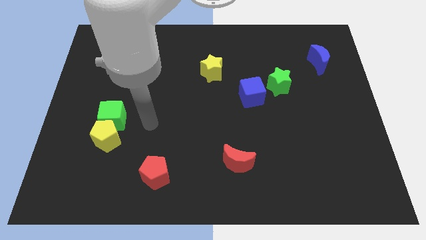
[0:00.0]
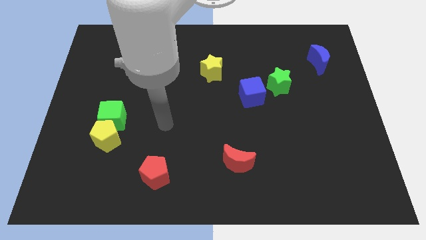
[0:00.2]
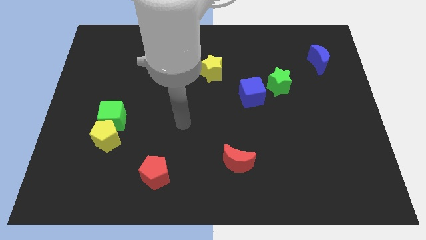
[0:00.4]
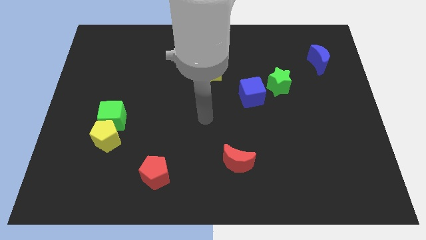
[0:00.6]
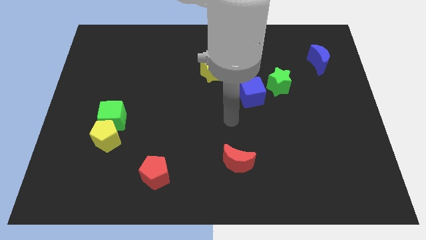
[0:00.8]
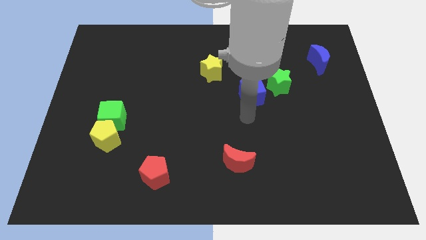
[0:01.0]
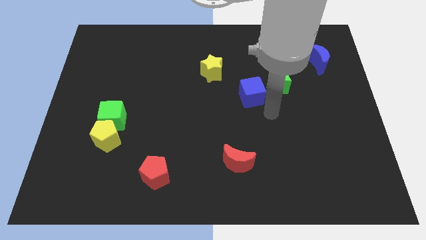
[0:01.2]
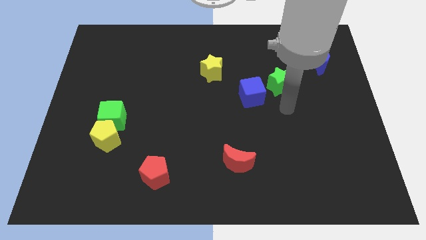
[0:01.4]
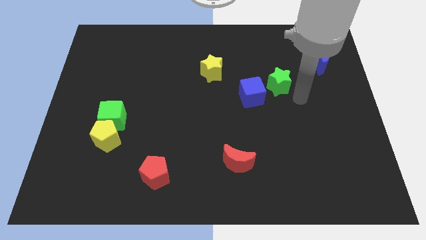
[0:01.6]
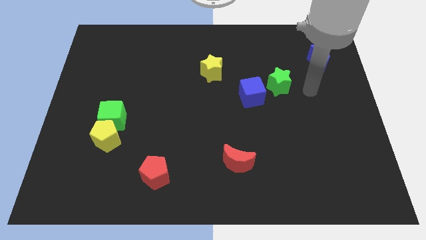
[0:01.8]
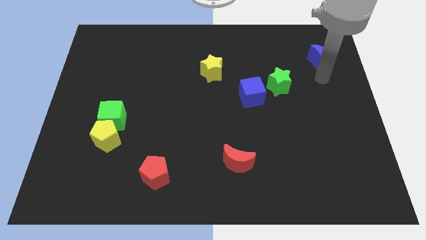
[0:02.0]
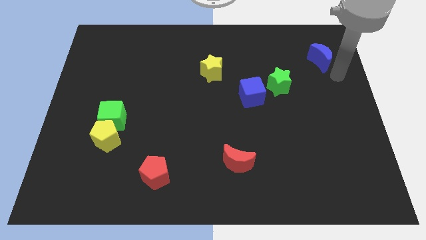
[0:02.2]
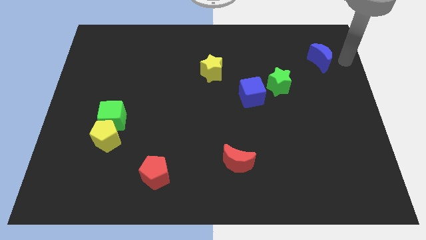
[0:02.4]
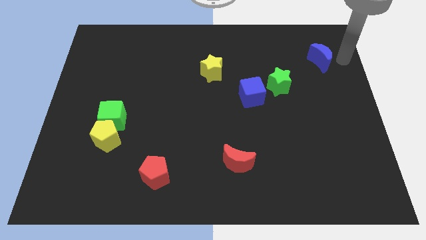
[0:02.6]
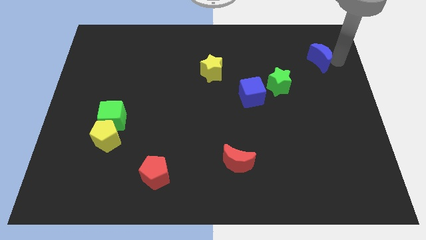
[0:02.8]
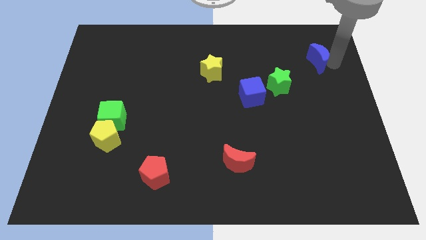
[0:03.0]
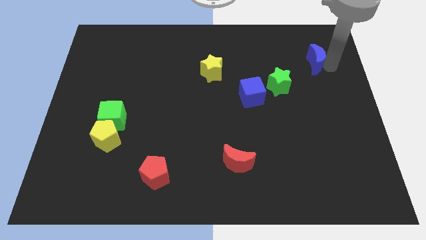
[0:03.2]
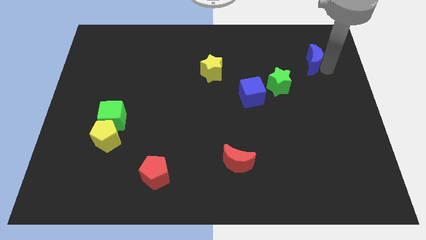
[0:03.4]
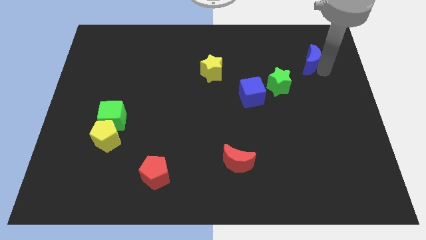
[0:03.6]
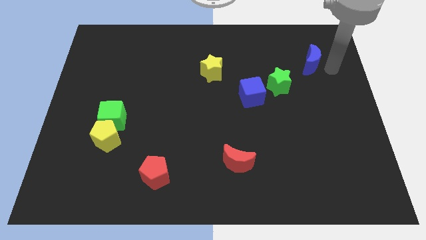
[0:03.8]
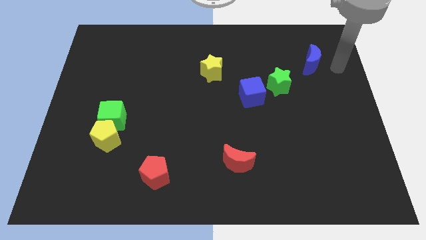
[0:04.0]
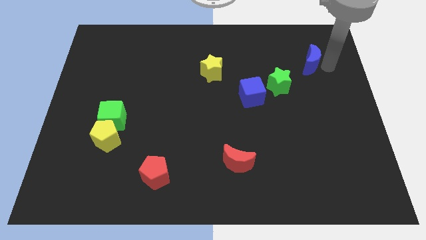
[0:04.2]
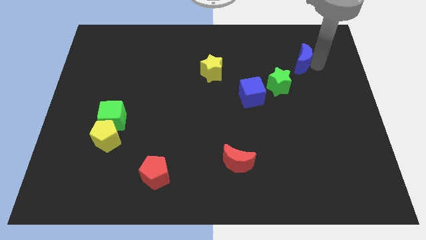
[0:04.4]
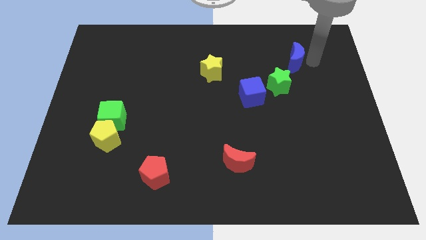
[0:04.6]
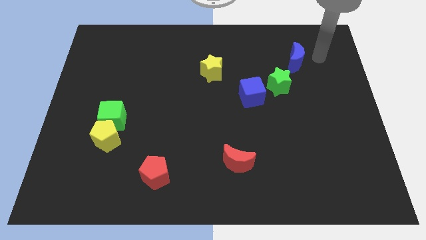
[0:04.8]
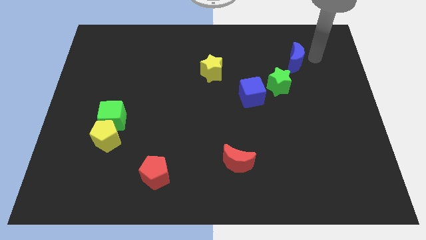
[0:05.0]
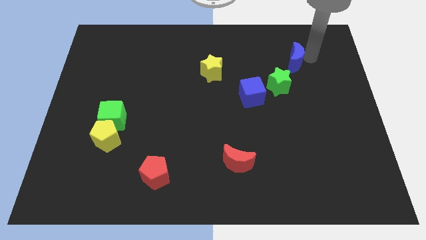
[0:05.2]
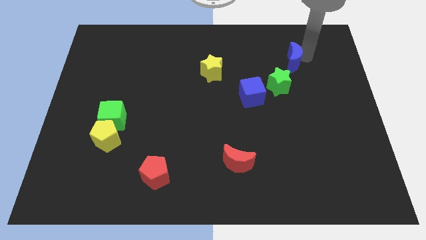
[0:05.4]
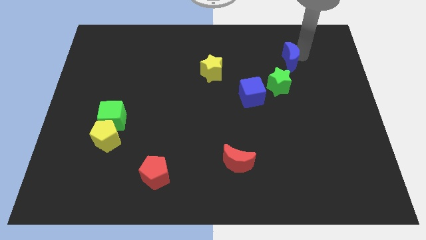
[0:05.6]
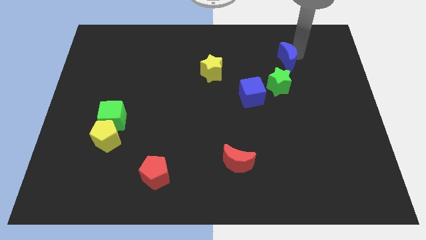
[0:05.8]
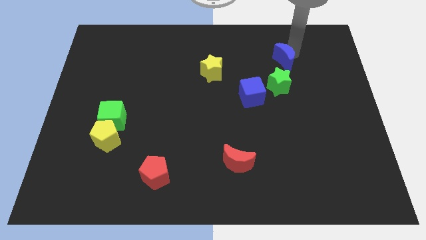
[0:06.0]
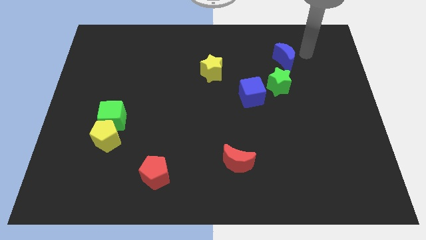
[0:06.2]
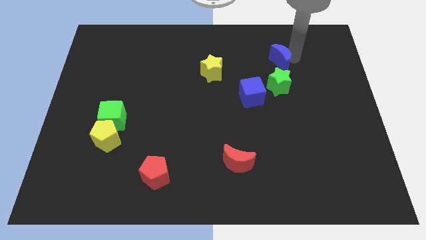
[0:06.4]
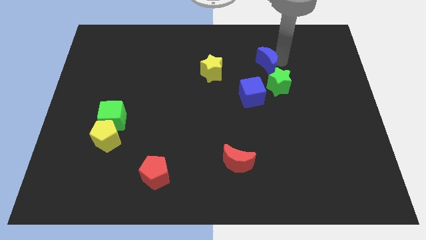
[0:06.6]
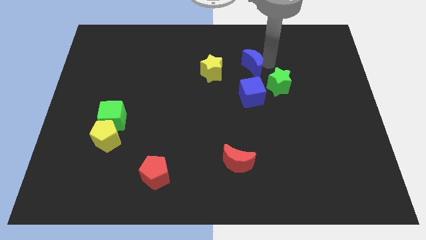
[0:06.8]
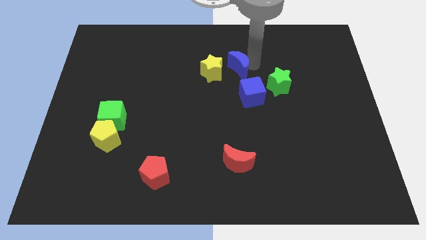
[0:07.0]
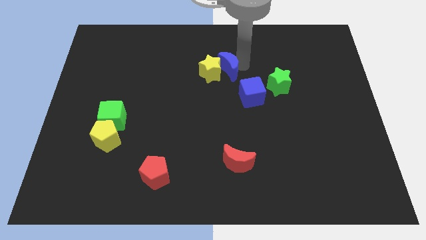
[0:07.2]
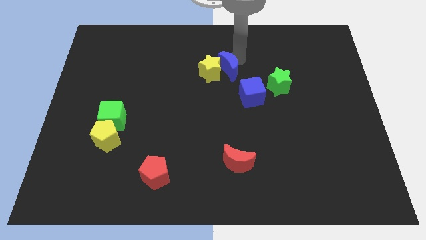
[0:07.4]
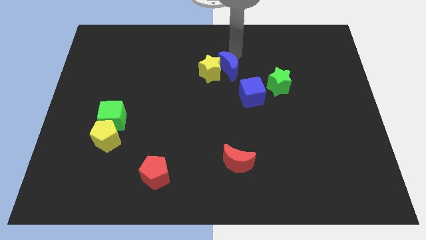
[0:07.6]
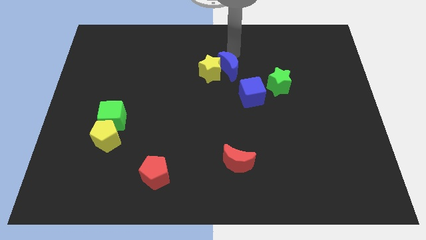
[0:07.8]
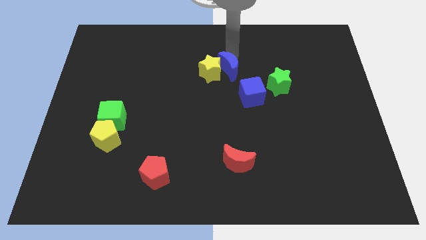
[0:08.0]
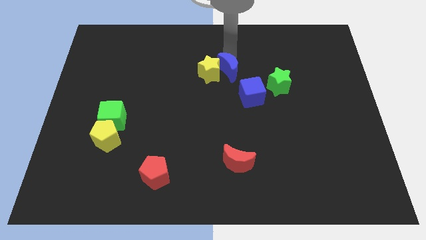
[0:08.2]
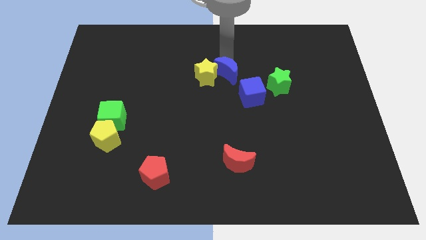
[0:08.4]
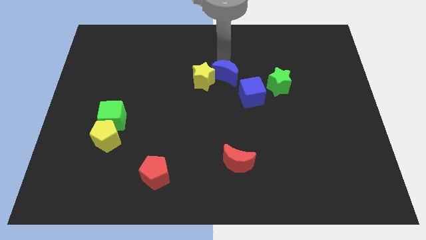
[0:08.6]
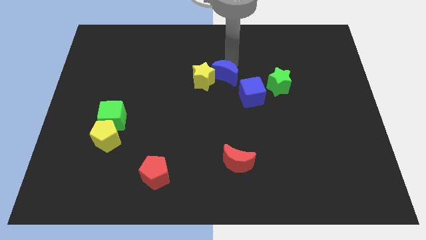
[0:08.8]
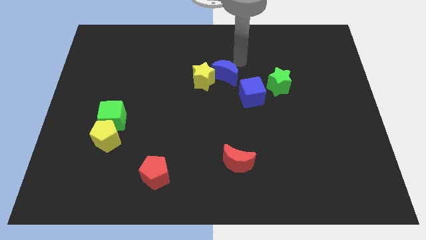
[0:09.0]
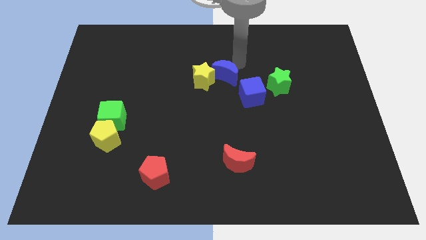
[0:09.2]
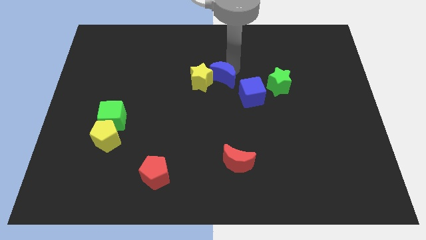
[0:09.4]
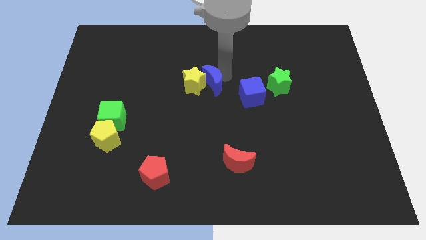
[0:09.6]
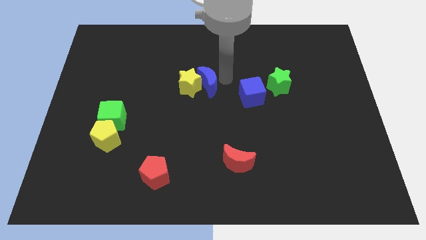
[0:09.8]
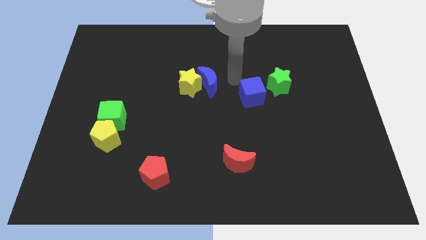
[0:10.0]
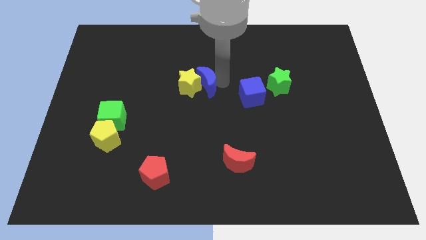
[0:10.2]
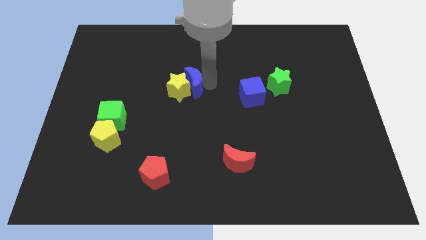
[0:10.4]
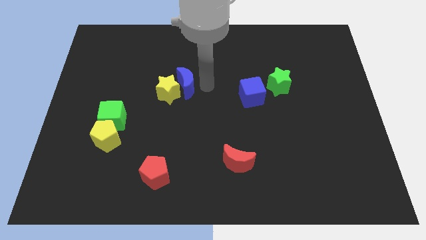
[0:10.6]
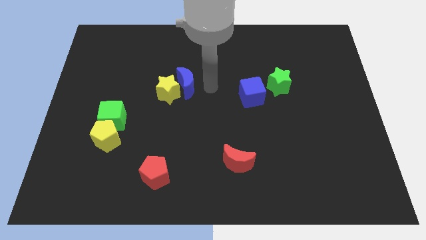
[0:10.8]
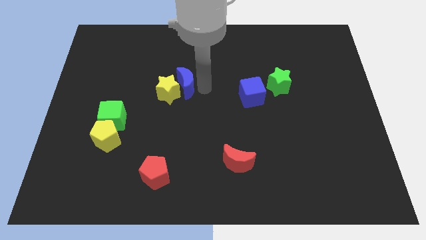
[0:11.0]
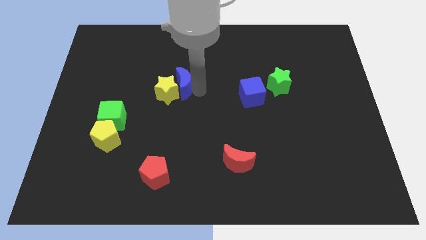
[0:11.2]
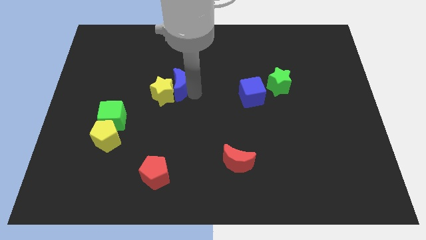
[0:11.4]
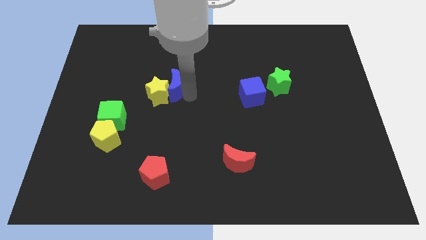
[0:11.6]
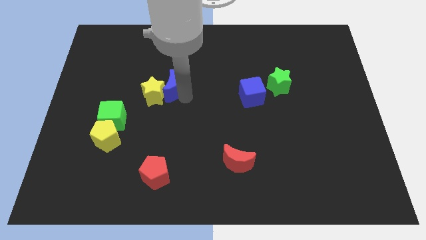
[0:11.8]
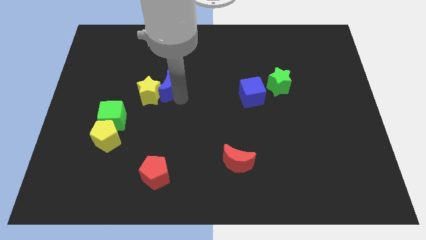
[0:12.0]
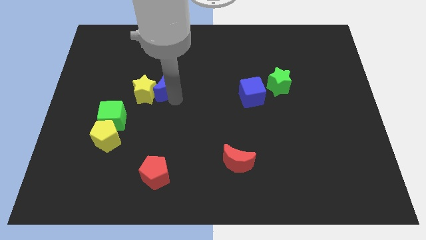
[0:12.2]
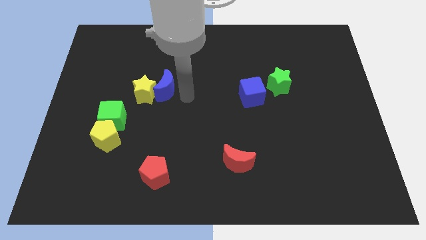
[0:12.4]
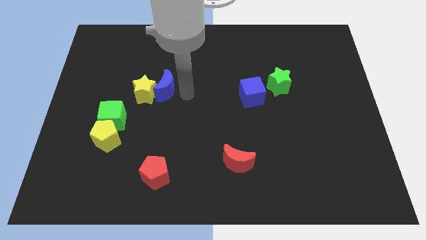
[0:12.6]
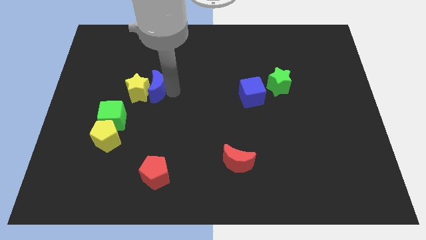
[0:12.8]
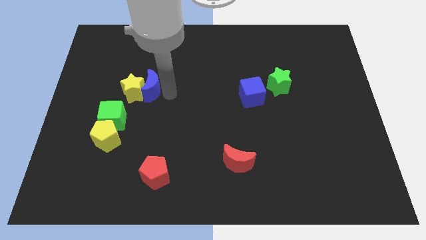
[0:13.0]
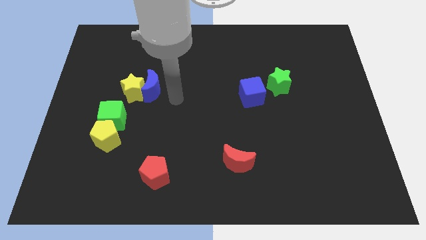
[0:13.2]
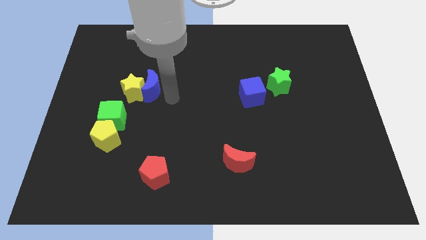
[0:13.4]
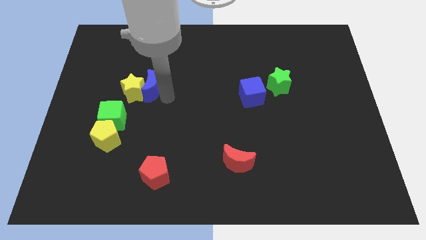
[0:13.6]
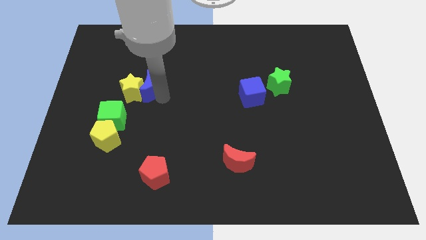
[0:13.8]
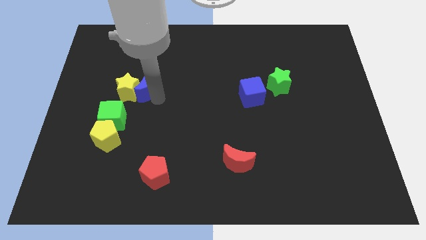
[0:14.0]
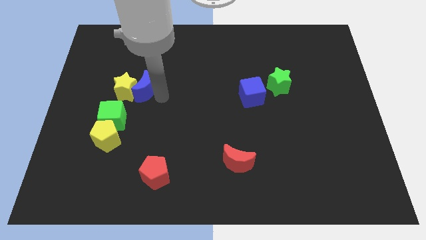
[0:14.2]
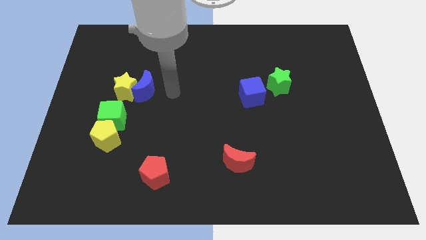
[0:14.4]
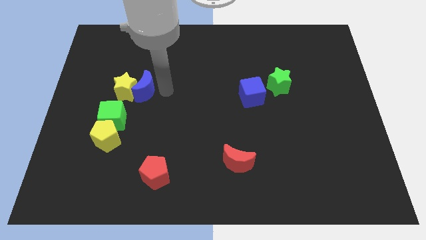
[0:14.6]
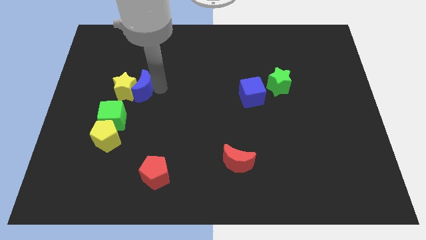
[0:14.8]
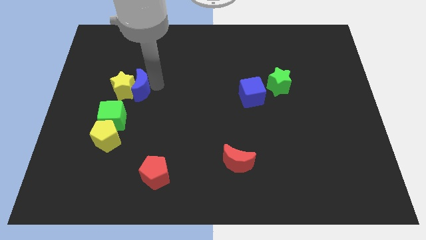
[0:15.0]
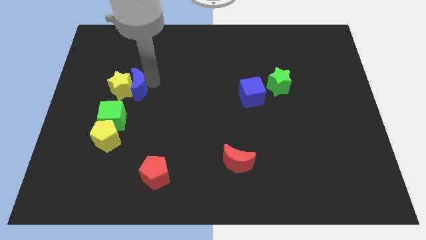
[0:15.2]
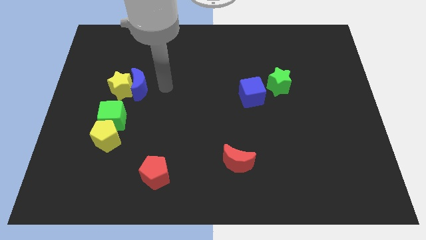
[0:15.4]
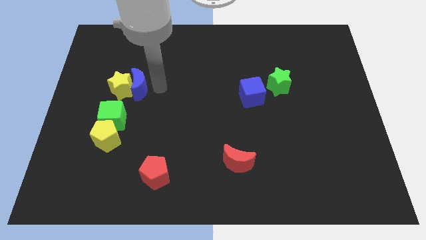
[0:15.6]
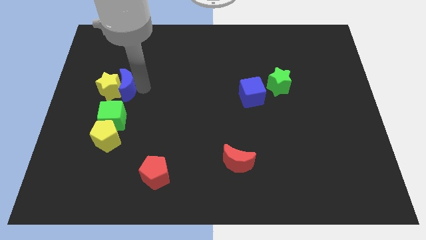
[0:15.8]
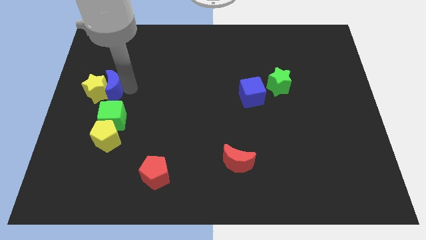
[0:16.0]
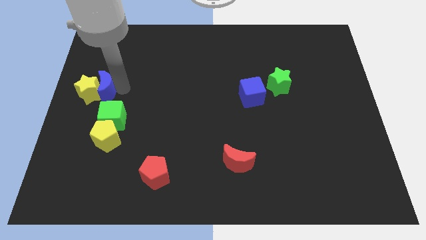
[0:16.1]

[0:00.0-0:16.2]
put the blue moon to the left side of the board
